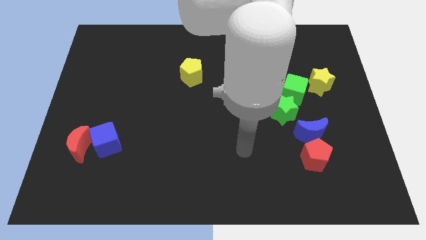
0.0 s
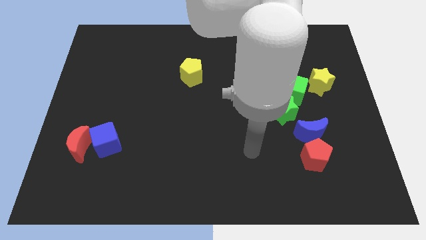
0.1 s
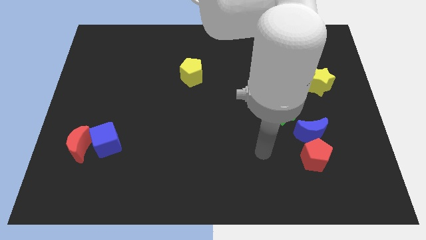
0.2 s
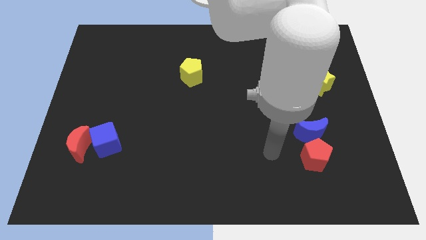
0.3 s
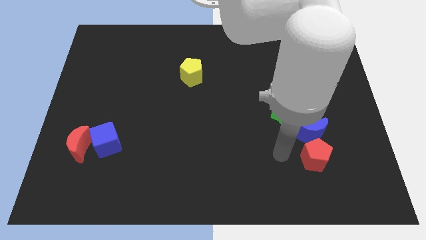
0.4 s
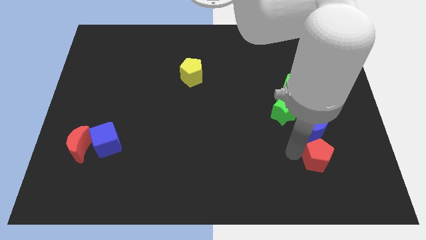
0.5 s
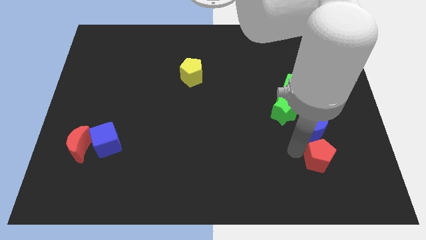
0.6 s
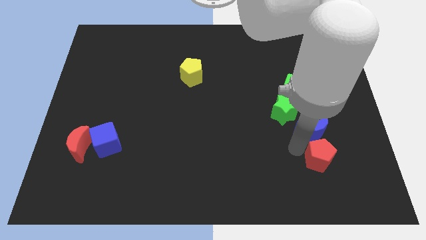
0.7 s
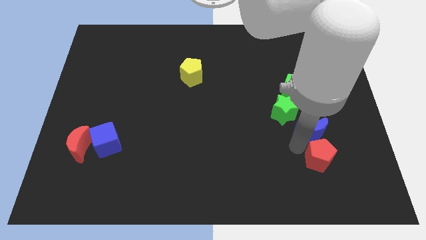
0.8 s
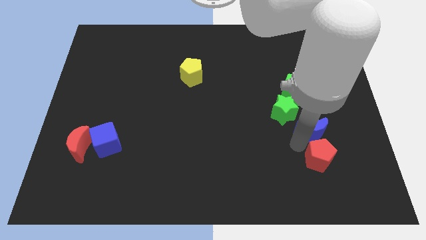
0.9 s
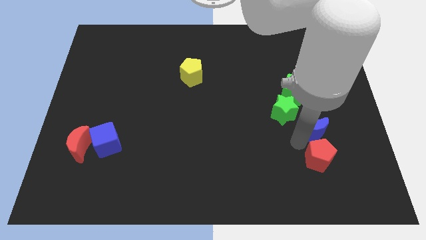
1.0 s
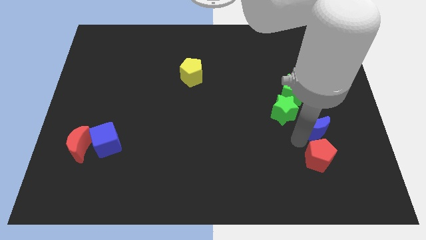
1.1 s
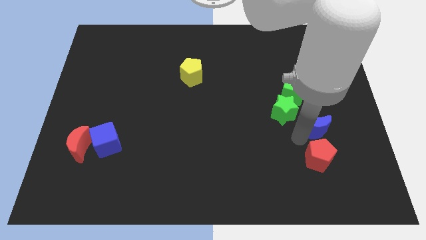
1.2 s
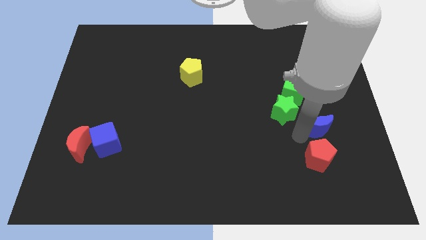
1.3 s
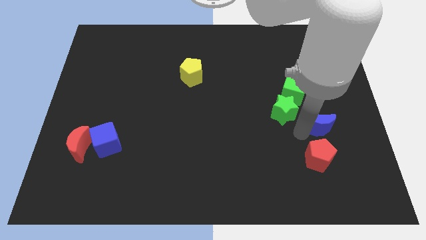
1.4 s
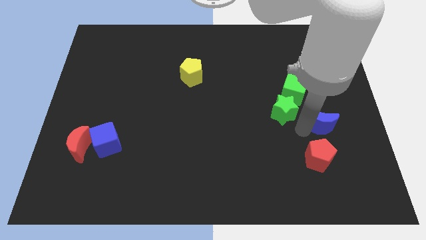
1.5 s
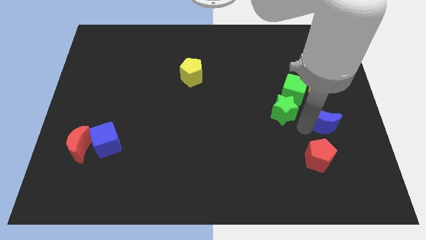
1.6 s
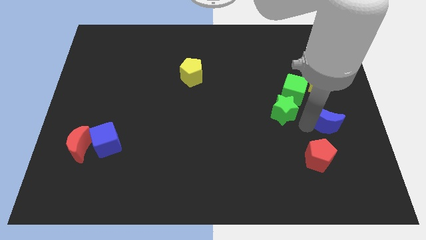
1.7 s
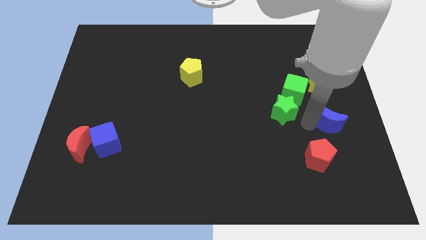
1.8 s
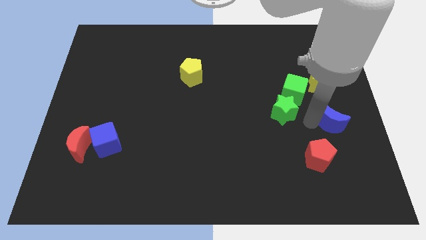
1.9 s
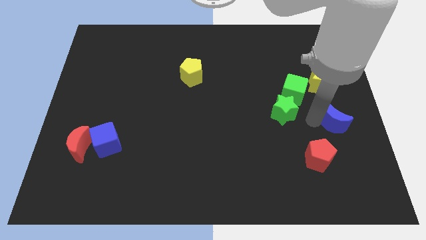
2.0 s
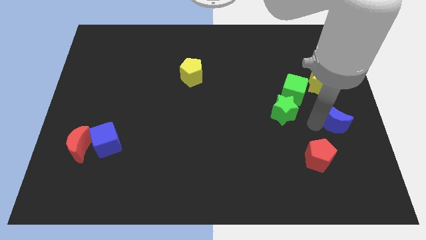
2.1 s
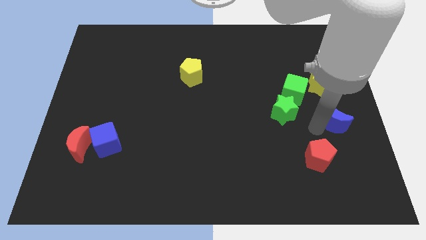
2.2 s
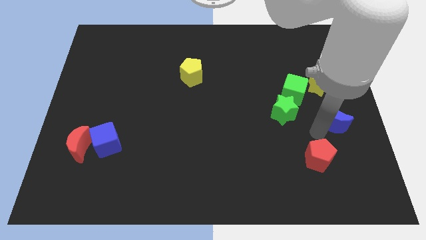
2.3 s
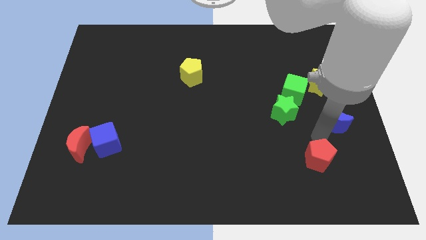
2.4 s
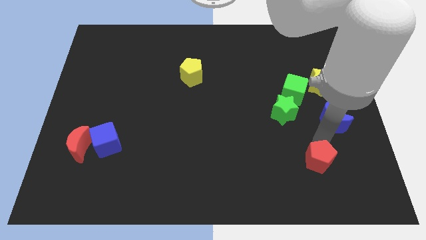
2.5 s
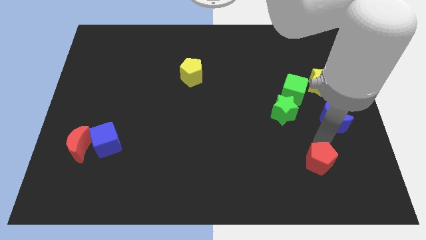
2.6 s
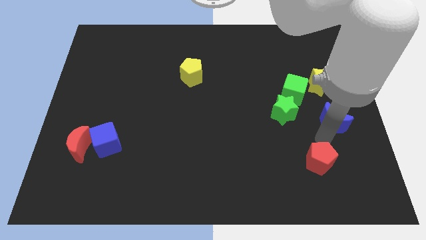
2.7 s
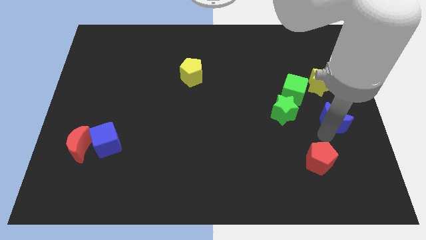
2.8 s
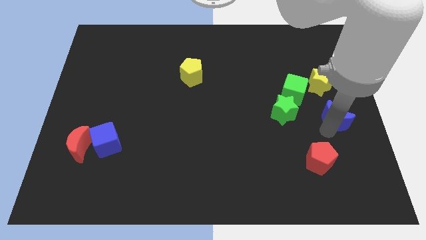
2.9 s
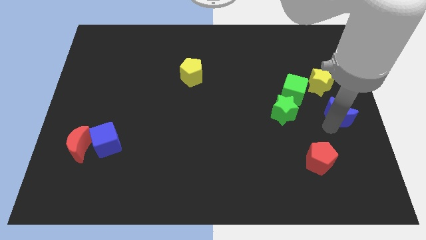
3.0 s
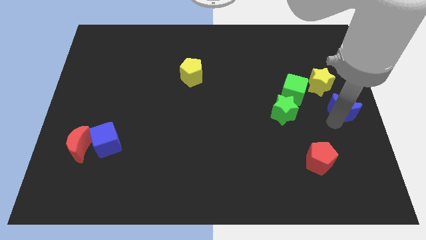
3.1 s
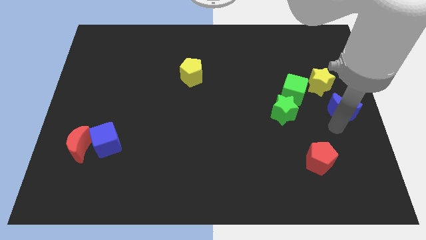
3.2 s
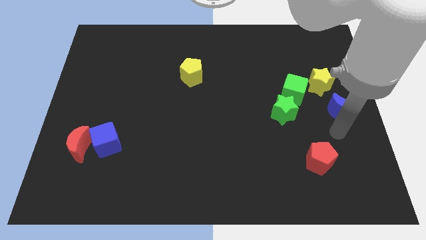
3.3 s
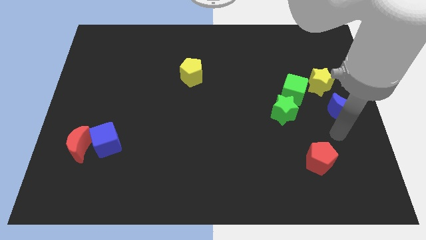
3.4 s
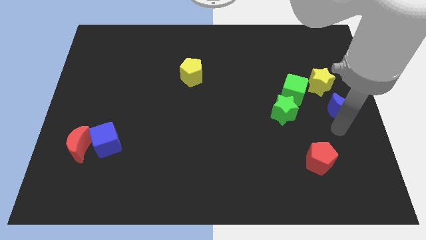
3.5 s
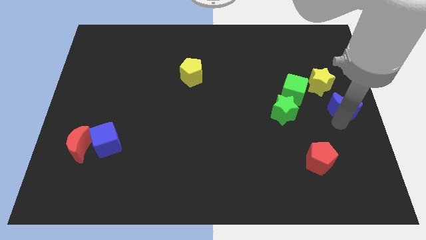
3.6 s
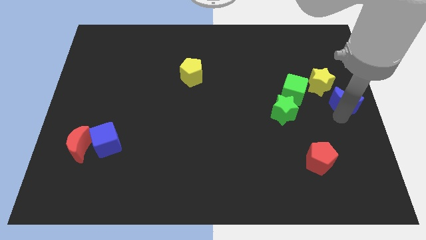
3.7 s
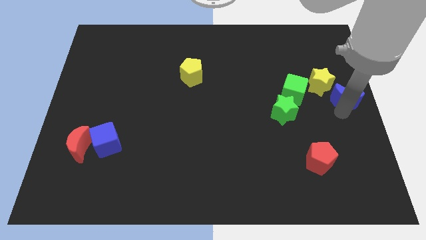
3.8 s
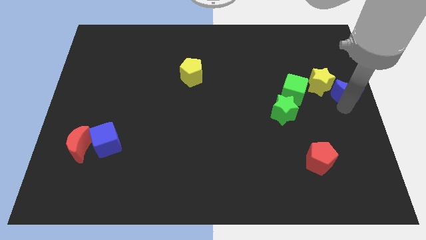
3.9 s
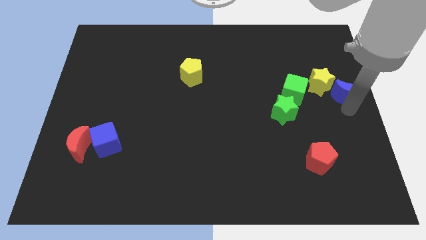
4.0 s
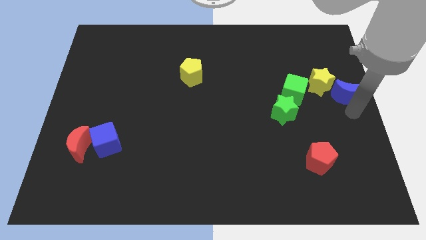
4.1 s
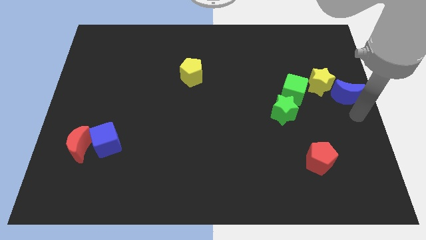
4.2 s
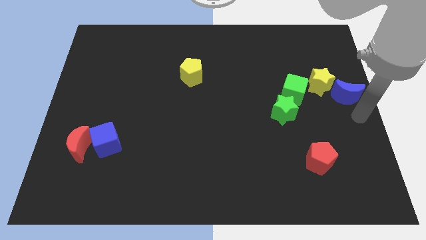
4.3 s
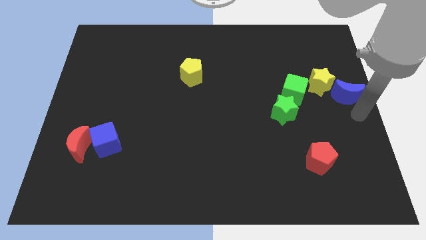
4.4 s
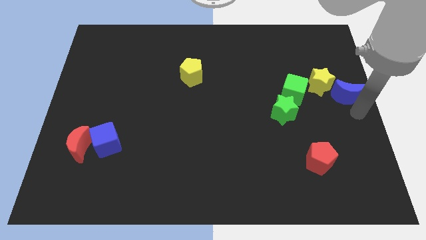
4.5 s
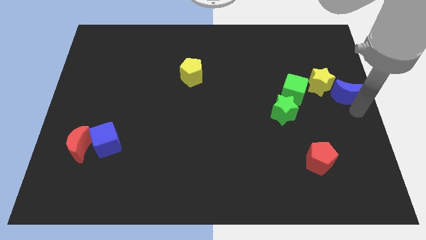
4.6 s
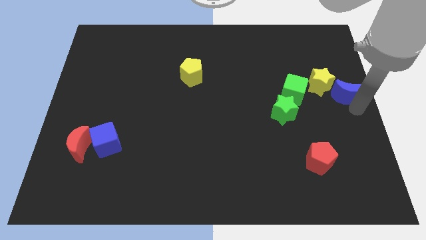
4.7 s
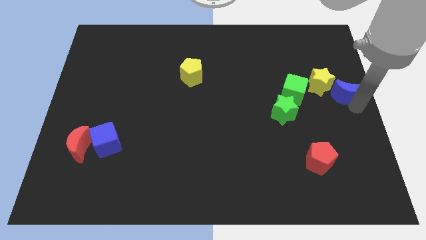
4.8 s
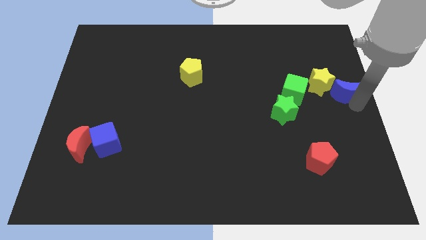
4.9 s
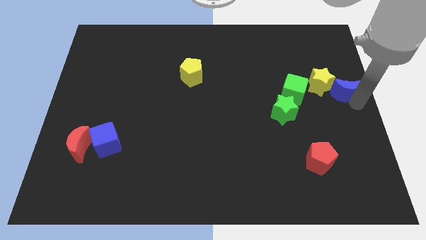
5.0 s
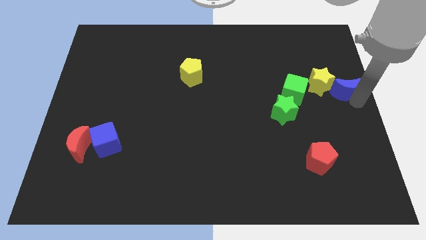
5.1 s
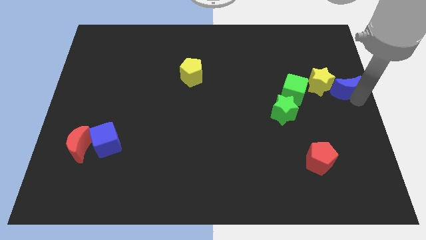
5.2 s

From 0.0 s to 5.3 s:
slightly move the blue moon up

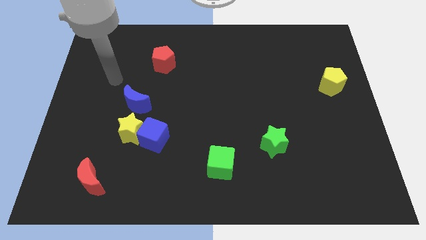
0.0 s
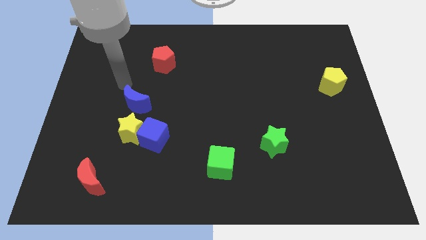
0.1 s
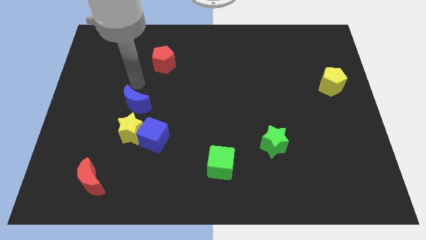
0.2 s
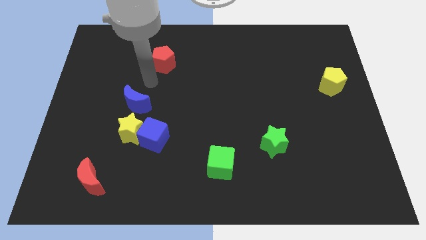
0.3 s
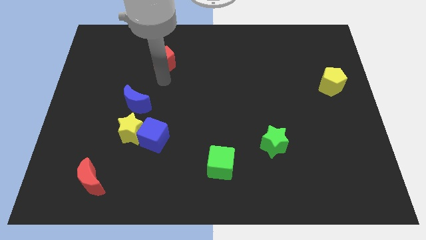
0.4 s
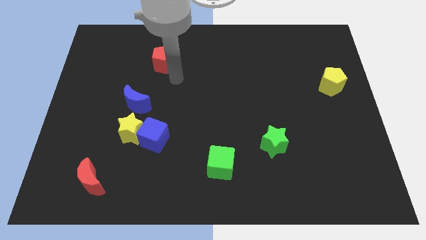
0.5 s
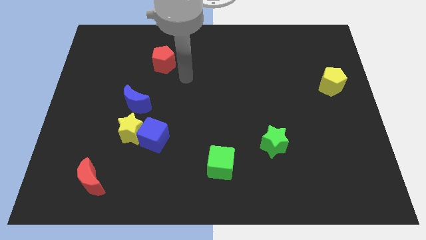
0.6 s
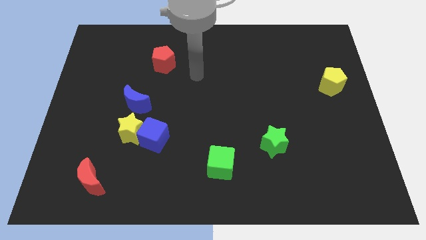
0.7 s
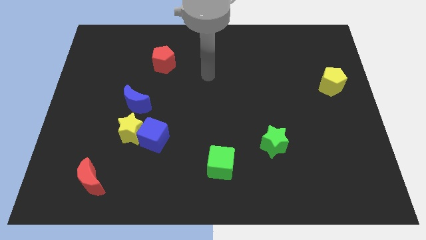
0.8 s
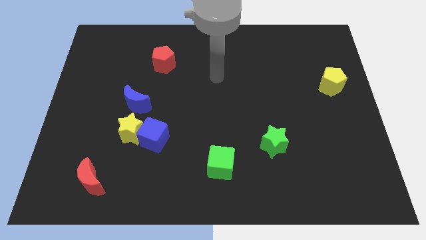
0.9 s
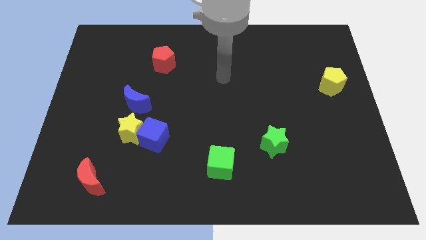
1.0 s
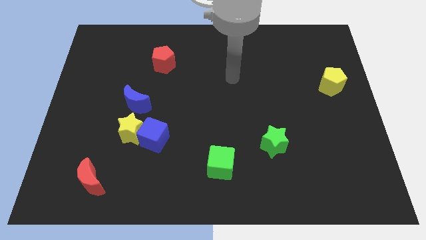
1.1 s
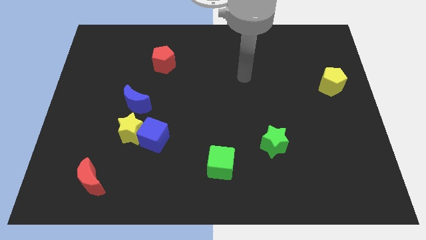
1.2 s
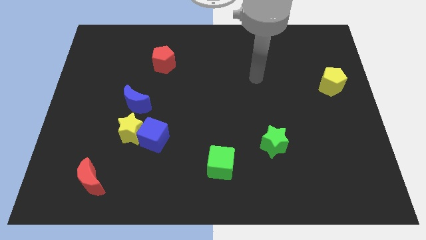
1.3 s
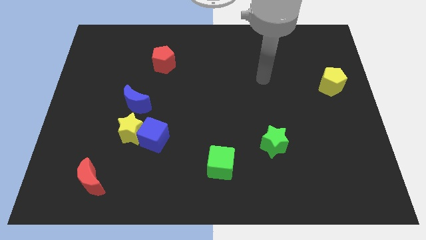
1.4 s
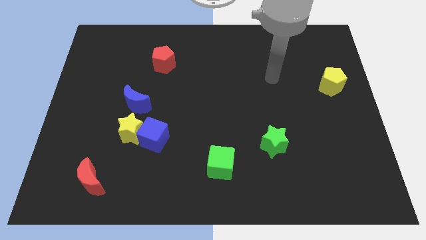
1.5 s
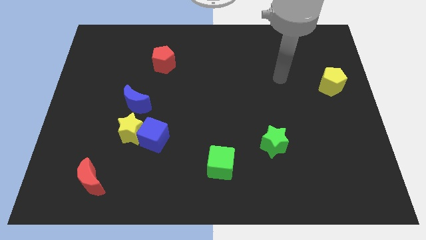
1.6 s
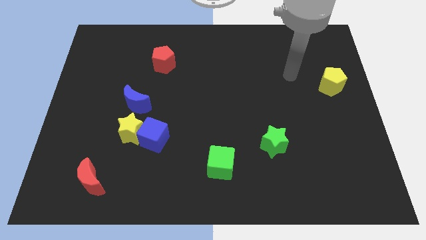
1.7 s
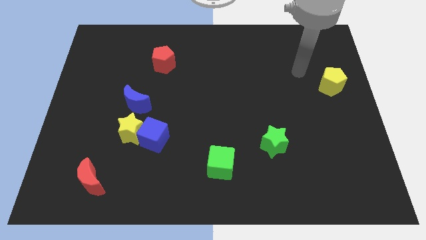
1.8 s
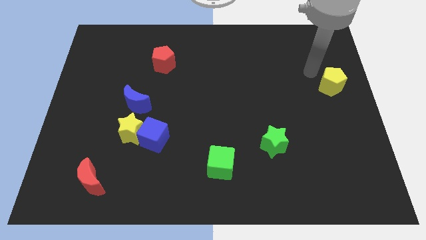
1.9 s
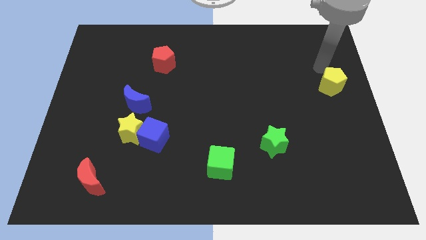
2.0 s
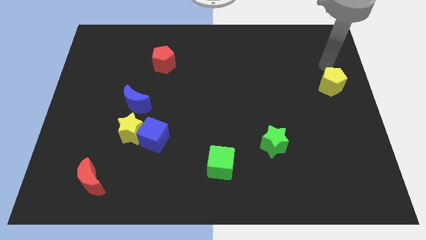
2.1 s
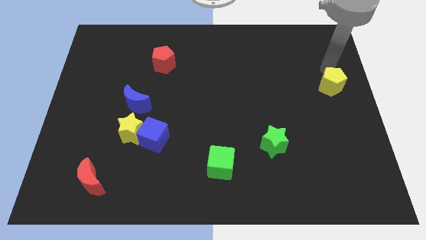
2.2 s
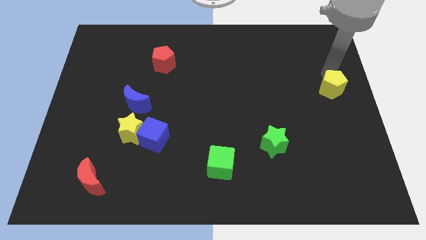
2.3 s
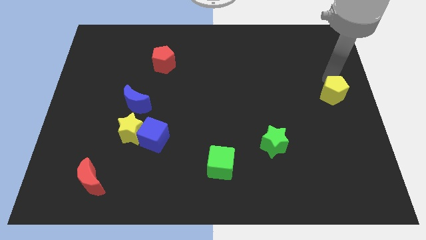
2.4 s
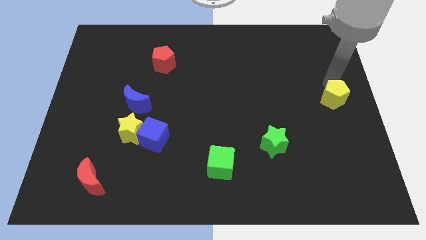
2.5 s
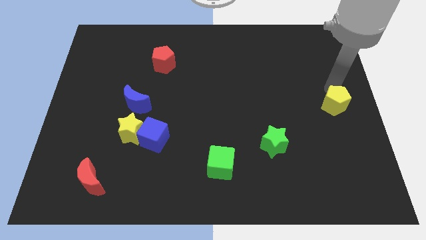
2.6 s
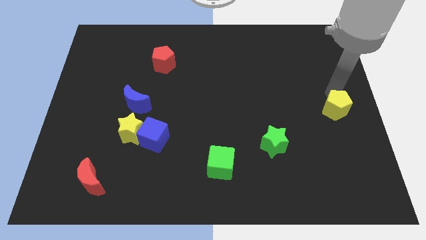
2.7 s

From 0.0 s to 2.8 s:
push the yellow pentagon a bit downwards

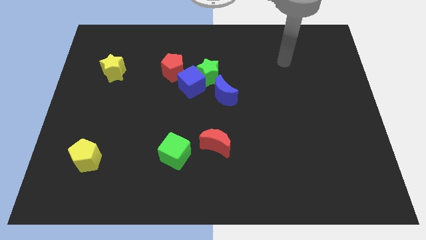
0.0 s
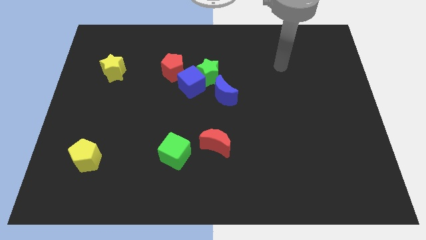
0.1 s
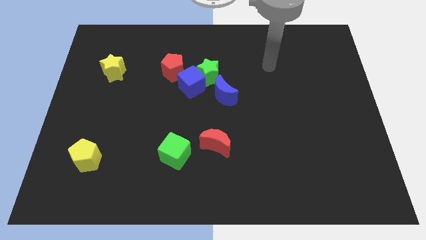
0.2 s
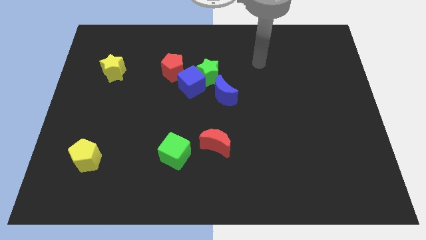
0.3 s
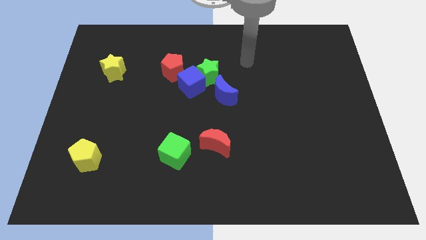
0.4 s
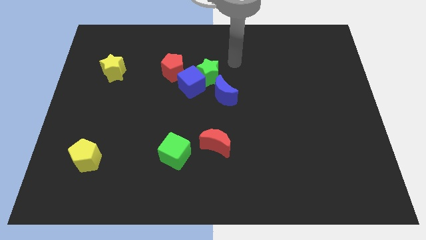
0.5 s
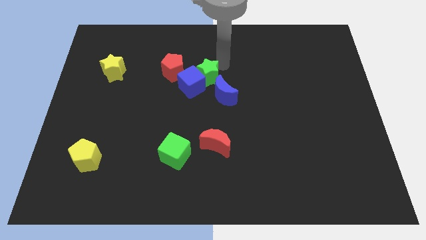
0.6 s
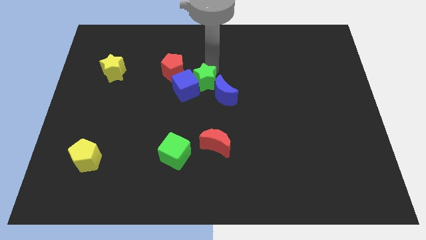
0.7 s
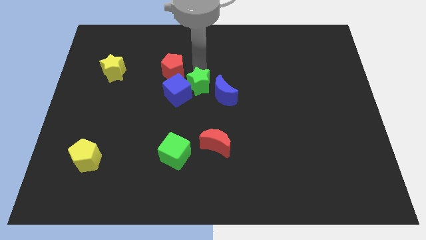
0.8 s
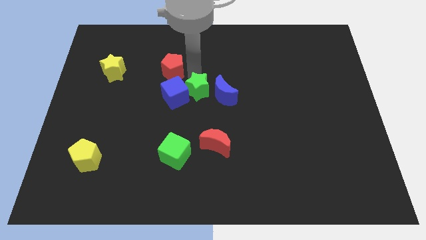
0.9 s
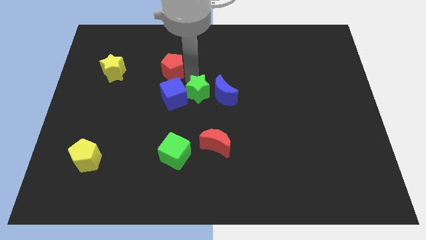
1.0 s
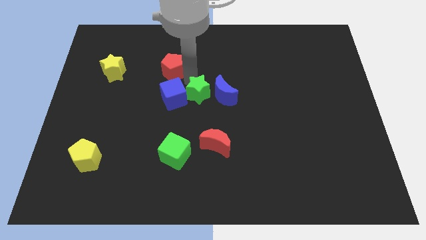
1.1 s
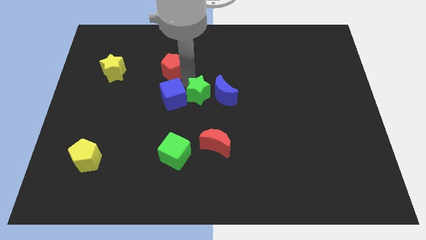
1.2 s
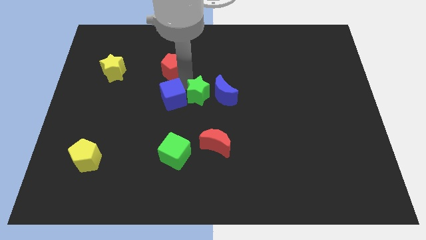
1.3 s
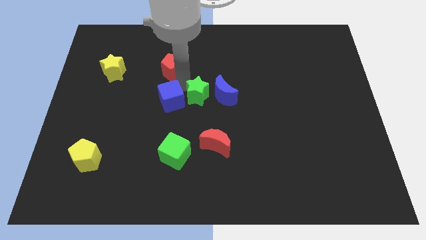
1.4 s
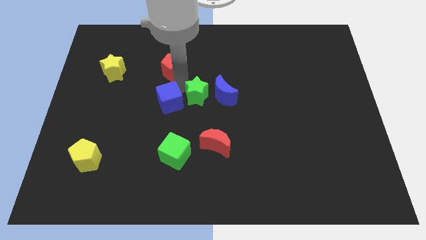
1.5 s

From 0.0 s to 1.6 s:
slightly push the blue cube diagonally down and to the left
